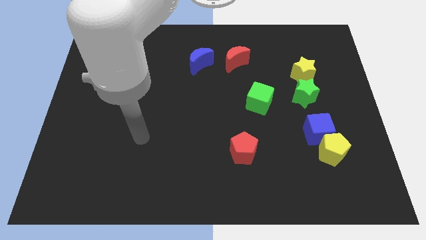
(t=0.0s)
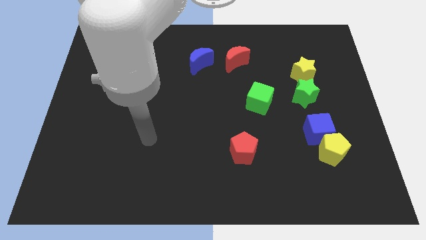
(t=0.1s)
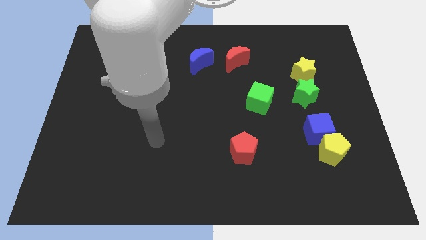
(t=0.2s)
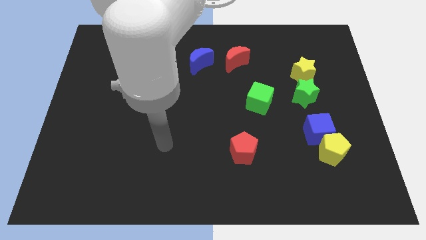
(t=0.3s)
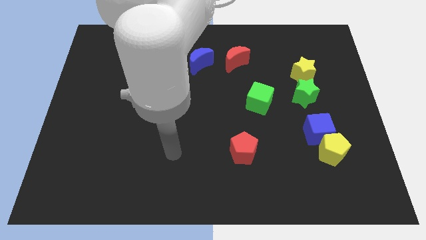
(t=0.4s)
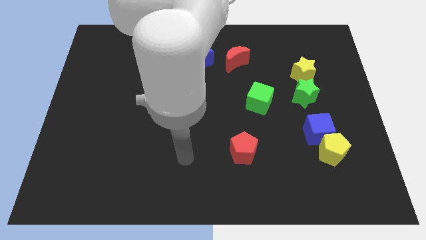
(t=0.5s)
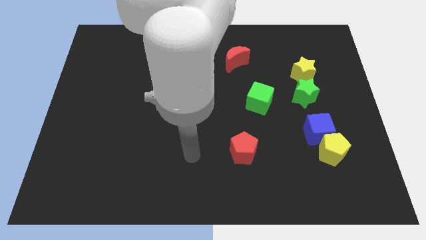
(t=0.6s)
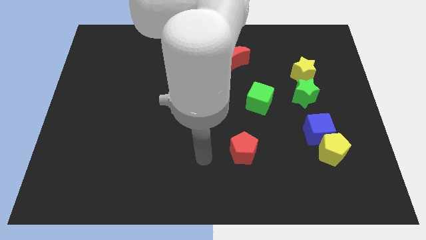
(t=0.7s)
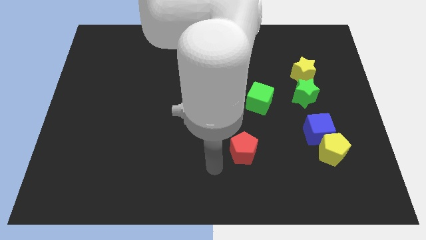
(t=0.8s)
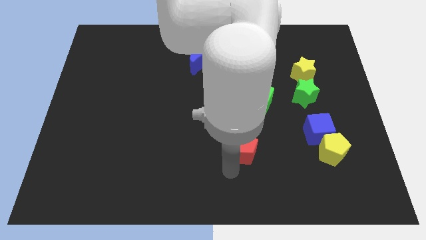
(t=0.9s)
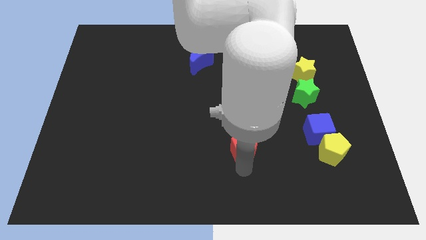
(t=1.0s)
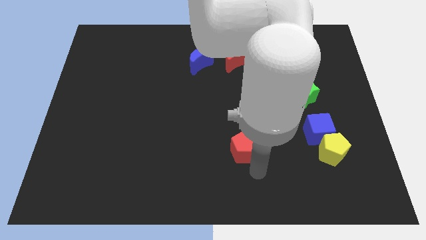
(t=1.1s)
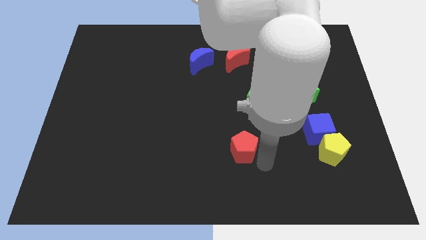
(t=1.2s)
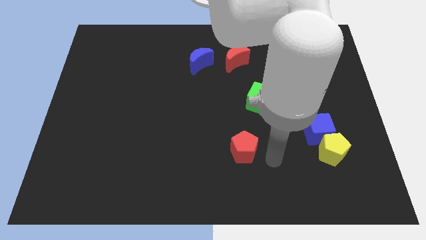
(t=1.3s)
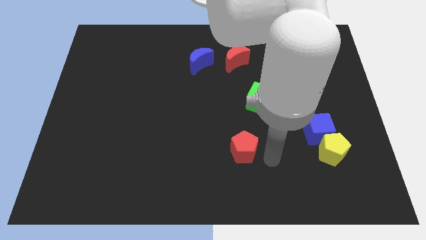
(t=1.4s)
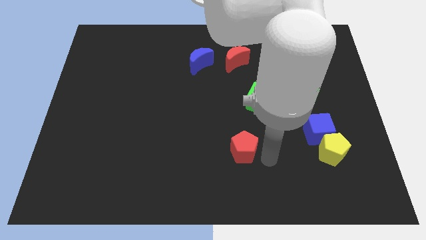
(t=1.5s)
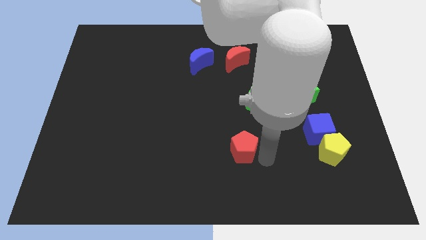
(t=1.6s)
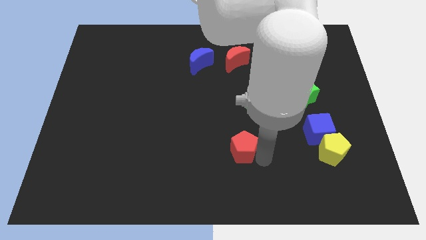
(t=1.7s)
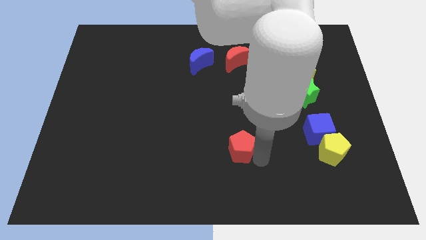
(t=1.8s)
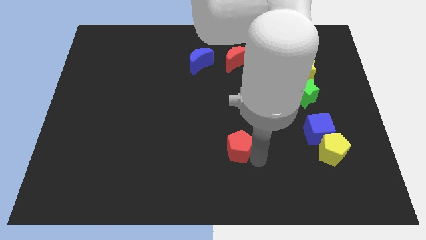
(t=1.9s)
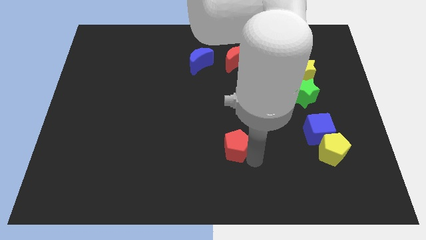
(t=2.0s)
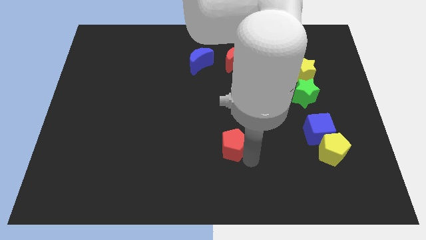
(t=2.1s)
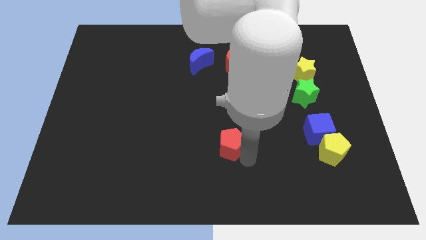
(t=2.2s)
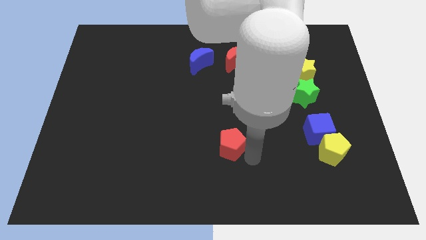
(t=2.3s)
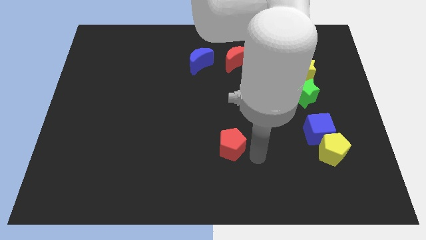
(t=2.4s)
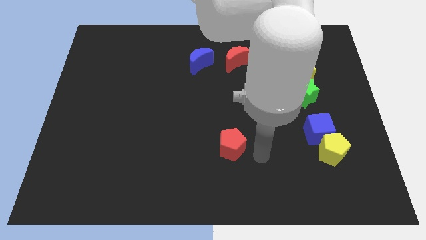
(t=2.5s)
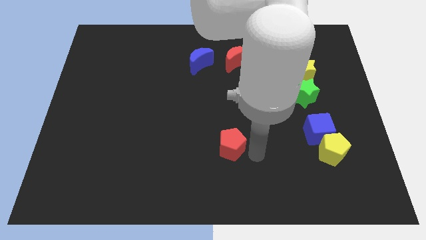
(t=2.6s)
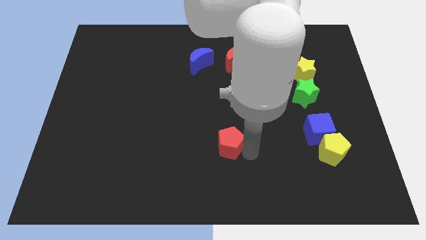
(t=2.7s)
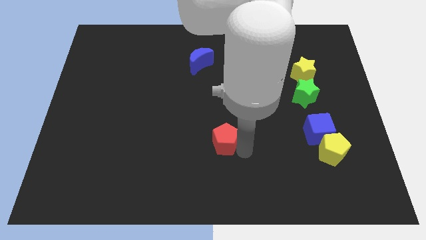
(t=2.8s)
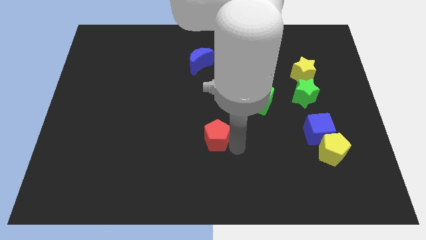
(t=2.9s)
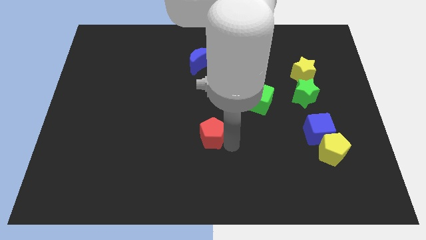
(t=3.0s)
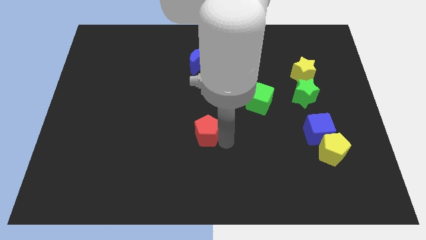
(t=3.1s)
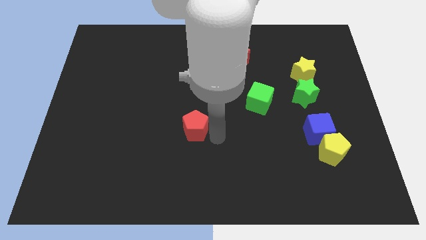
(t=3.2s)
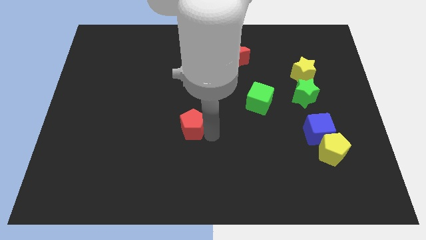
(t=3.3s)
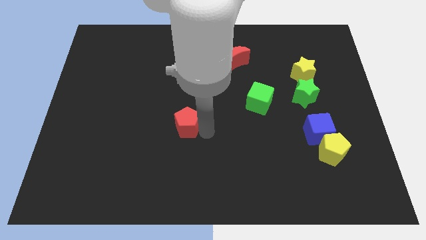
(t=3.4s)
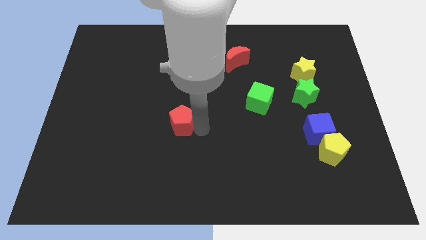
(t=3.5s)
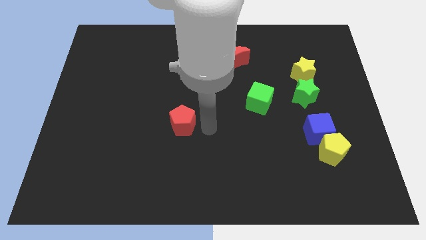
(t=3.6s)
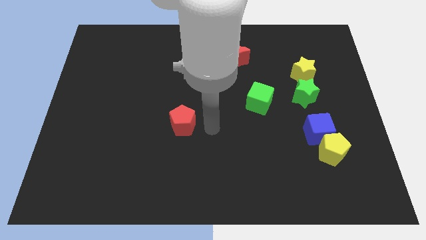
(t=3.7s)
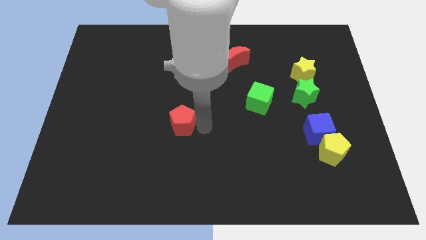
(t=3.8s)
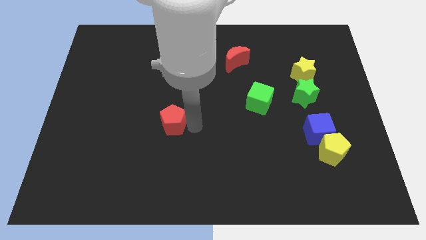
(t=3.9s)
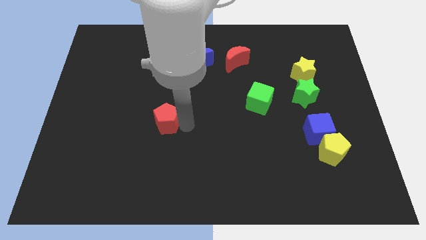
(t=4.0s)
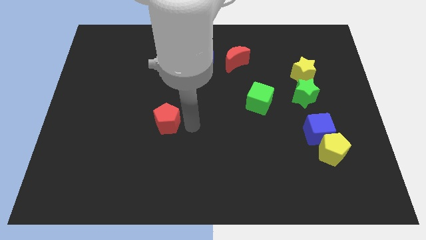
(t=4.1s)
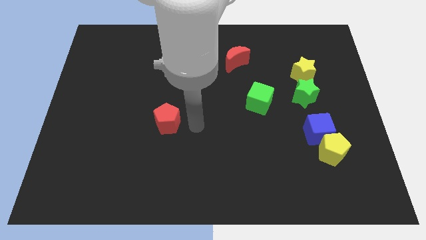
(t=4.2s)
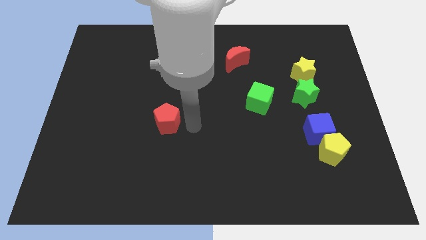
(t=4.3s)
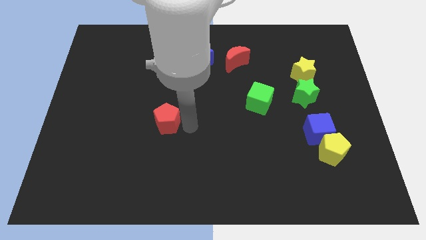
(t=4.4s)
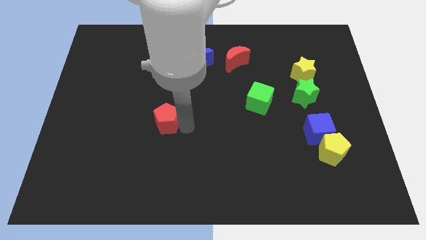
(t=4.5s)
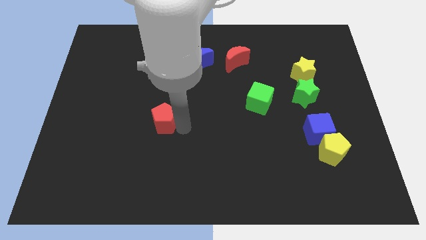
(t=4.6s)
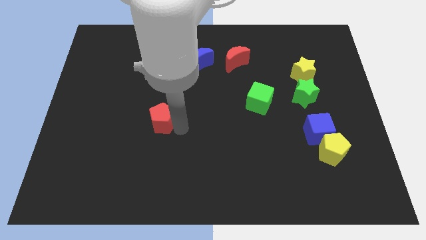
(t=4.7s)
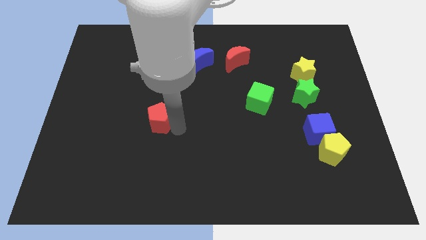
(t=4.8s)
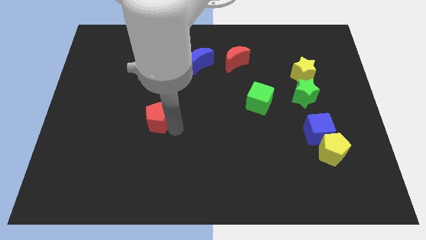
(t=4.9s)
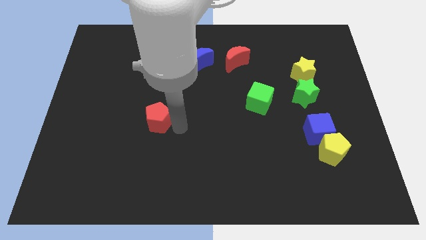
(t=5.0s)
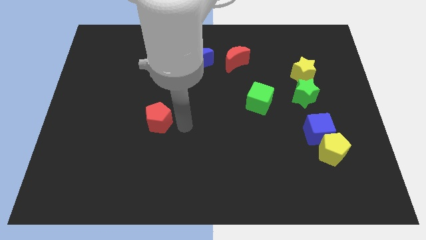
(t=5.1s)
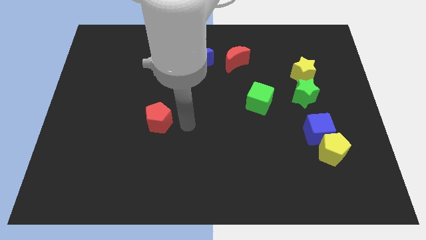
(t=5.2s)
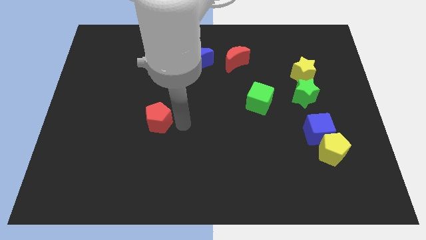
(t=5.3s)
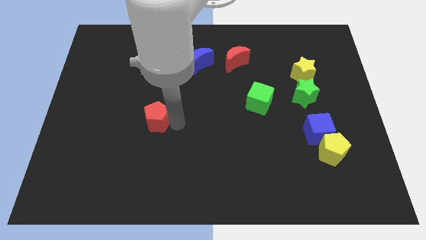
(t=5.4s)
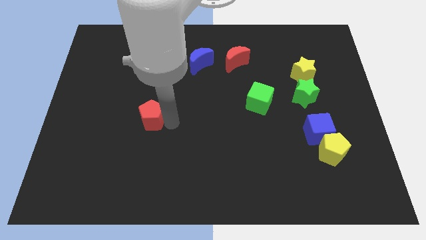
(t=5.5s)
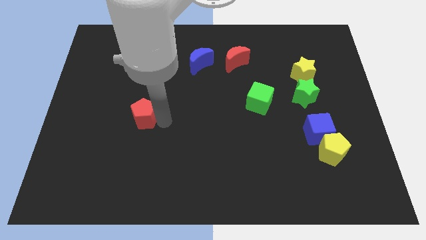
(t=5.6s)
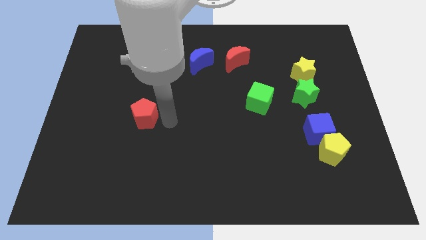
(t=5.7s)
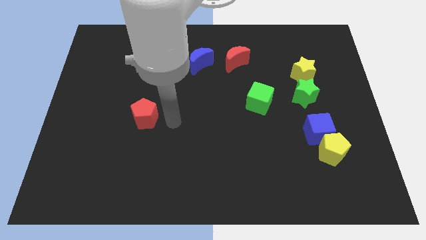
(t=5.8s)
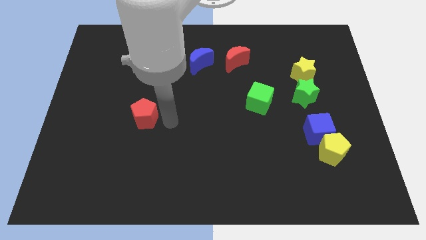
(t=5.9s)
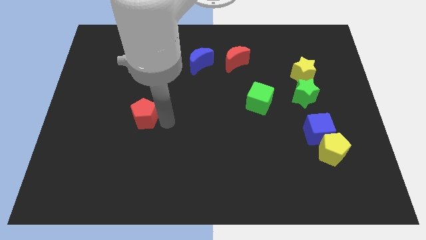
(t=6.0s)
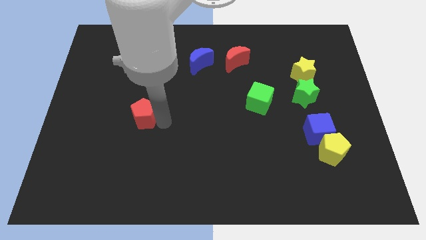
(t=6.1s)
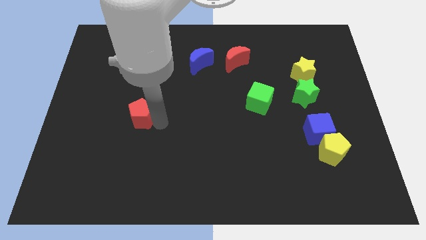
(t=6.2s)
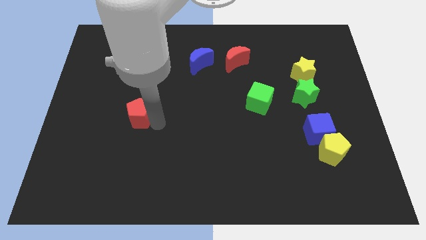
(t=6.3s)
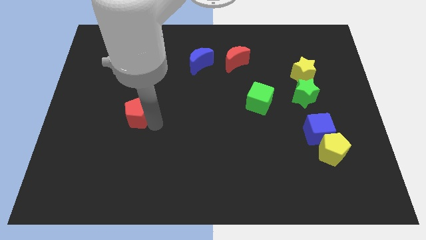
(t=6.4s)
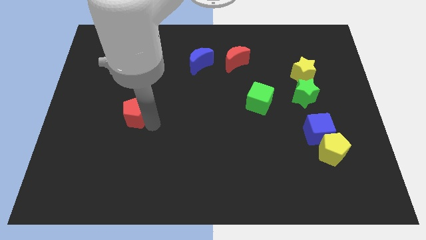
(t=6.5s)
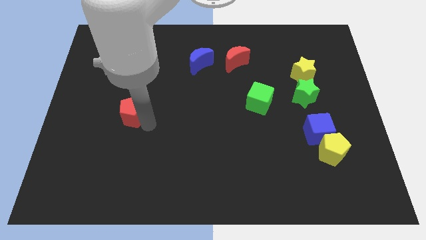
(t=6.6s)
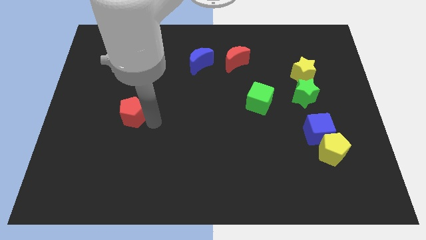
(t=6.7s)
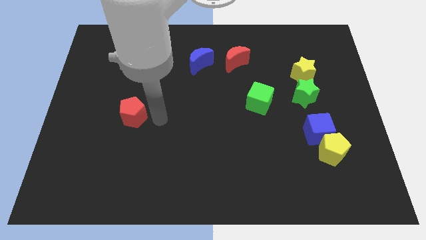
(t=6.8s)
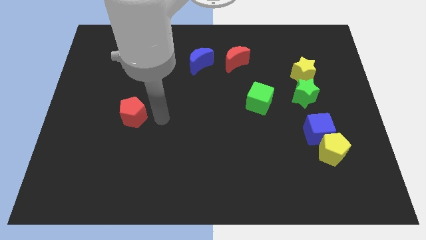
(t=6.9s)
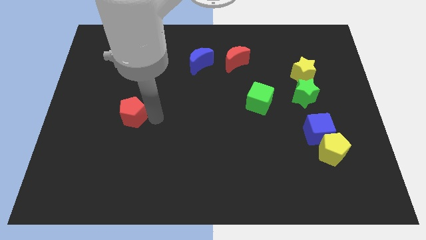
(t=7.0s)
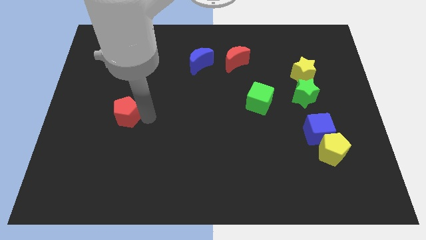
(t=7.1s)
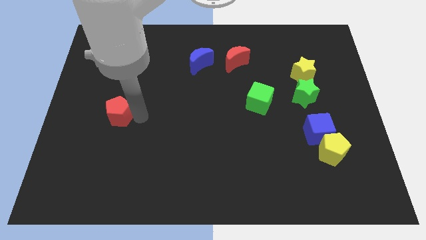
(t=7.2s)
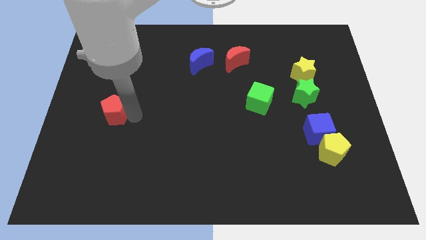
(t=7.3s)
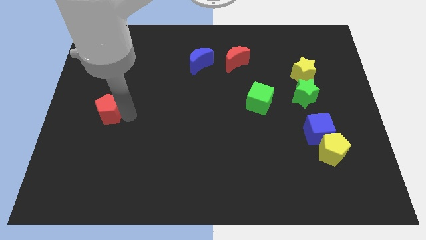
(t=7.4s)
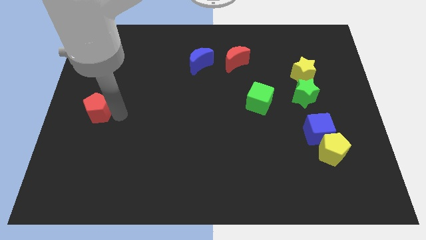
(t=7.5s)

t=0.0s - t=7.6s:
push the red pentagon to the left side of the board
